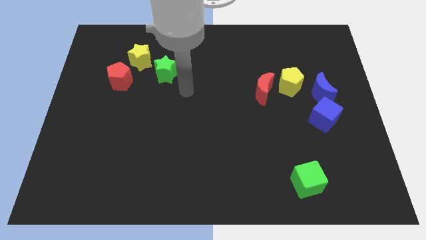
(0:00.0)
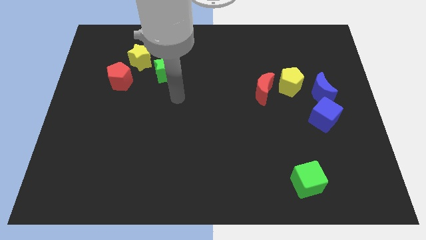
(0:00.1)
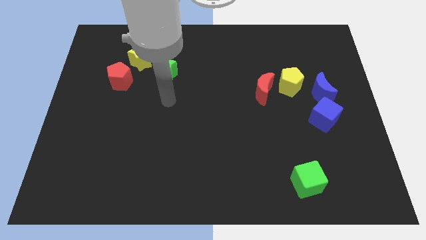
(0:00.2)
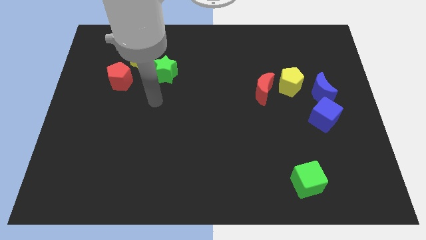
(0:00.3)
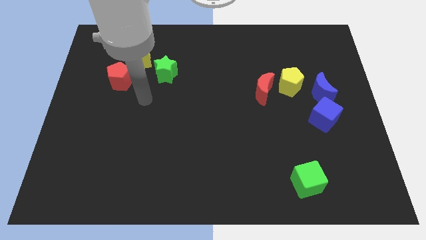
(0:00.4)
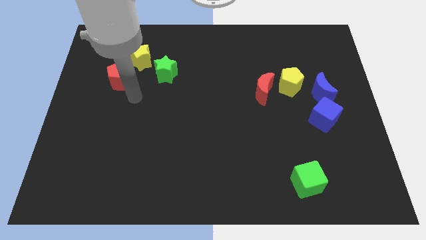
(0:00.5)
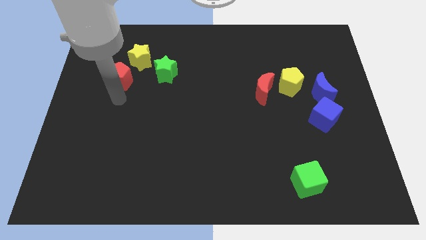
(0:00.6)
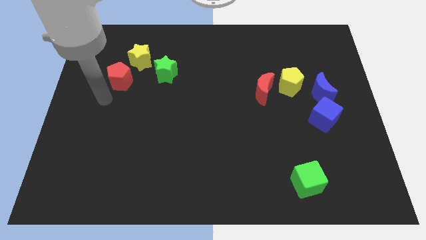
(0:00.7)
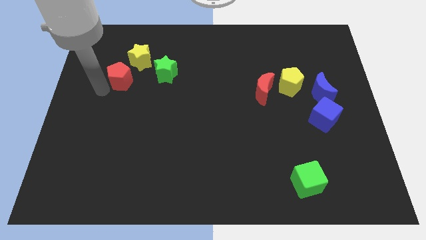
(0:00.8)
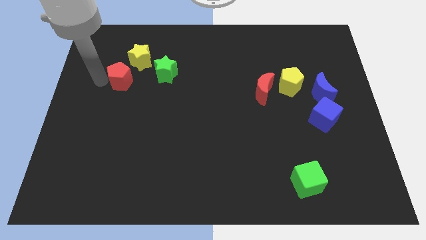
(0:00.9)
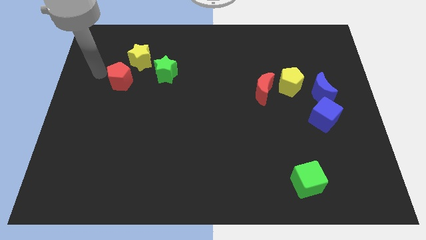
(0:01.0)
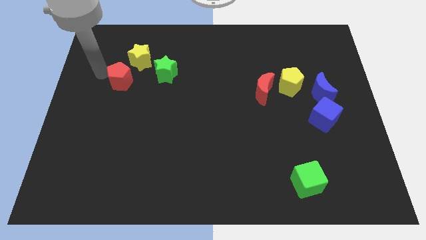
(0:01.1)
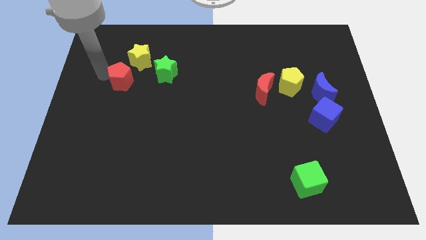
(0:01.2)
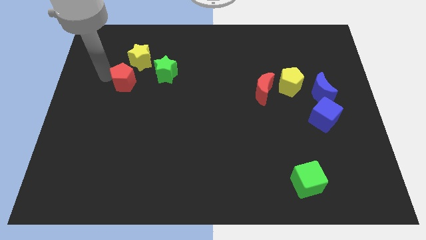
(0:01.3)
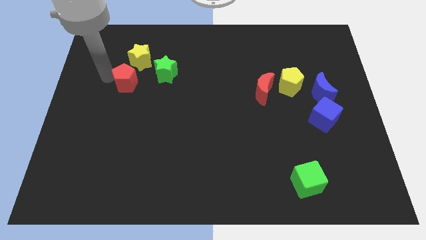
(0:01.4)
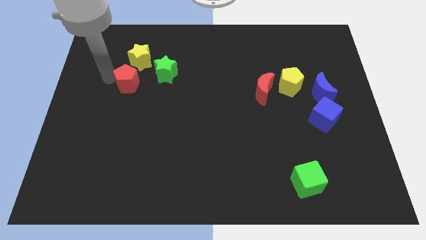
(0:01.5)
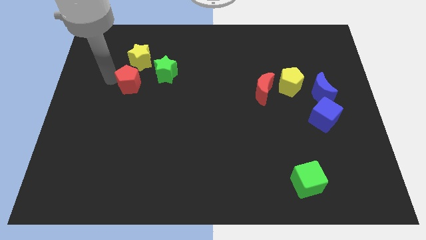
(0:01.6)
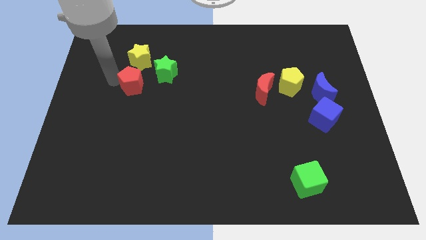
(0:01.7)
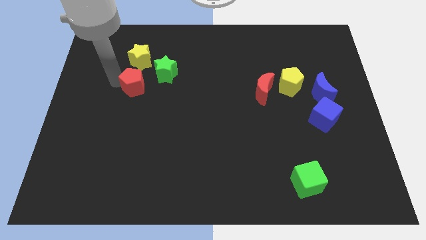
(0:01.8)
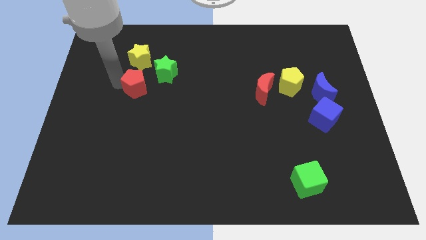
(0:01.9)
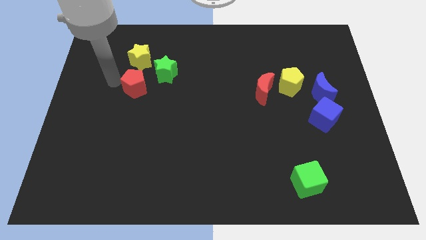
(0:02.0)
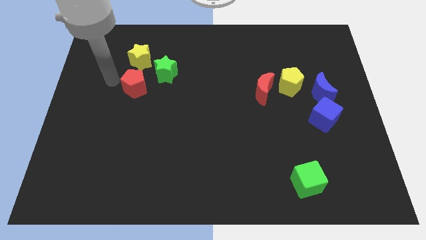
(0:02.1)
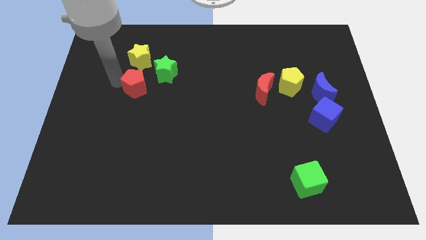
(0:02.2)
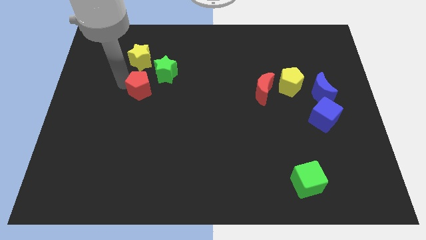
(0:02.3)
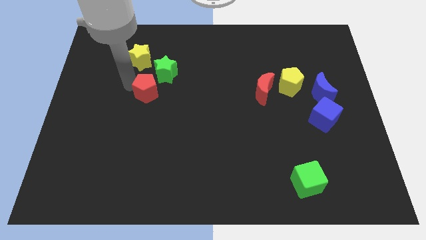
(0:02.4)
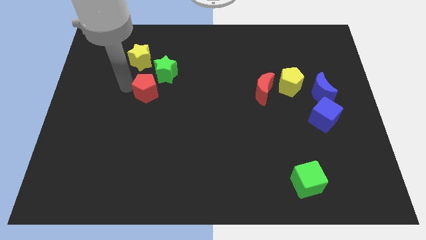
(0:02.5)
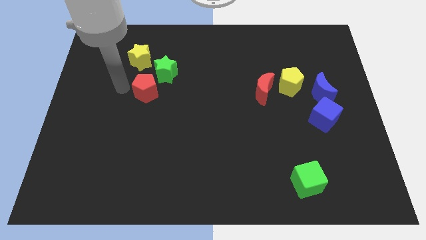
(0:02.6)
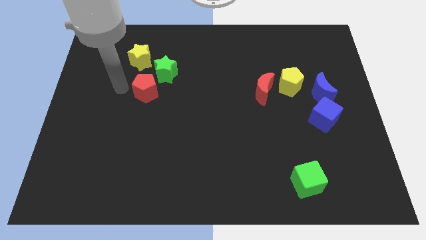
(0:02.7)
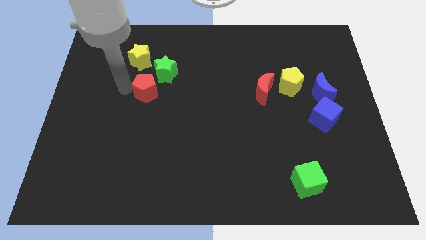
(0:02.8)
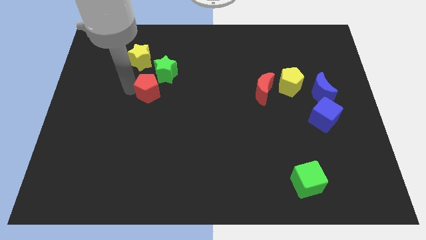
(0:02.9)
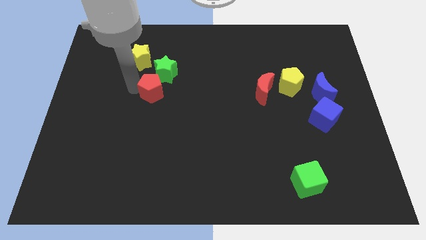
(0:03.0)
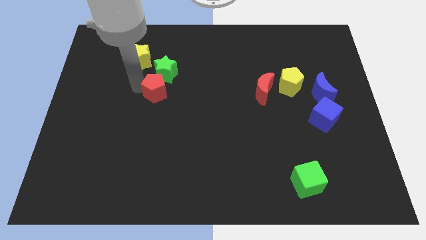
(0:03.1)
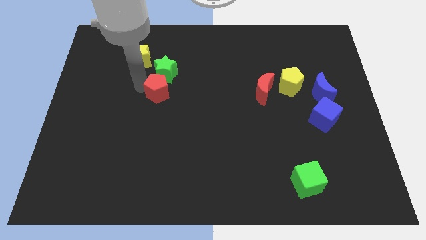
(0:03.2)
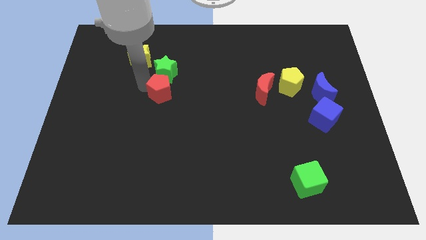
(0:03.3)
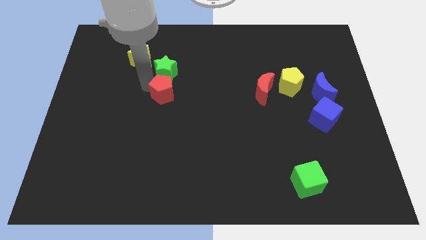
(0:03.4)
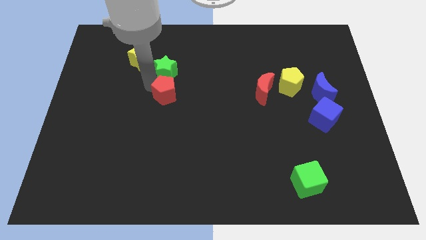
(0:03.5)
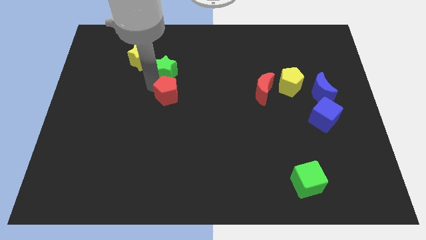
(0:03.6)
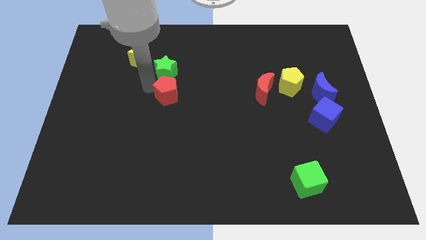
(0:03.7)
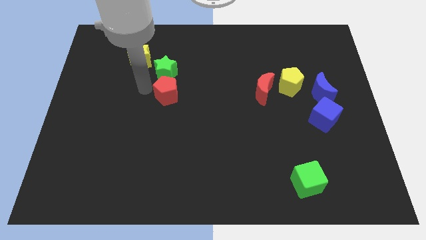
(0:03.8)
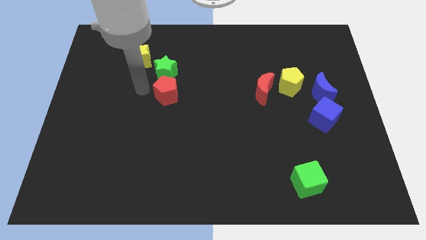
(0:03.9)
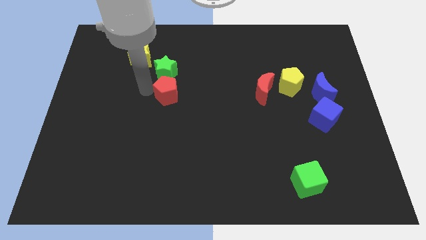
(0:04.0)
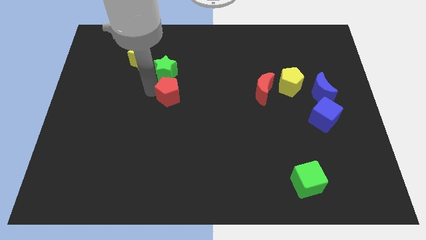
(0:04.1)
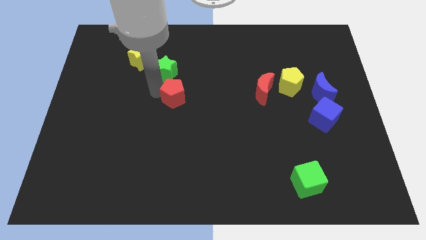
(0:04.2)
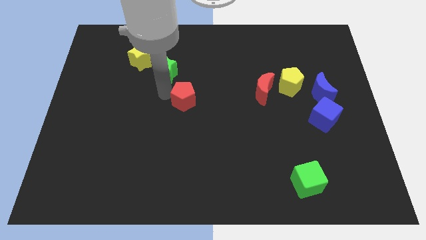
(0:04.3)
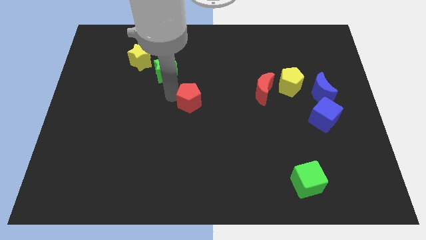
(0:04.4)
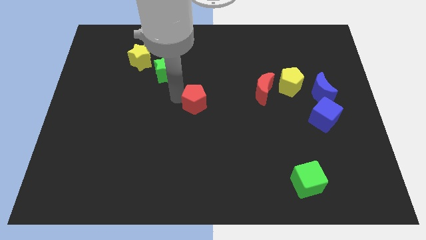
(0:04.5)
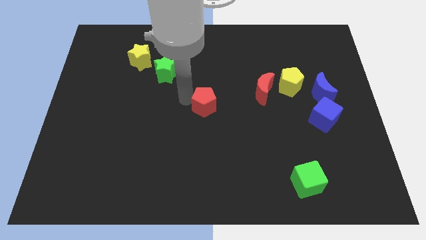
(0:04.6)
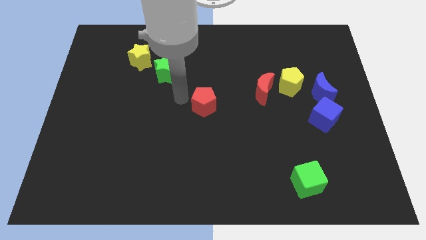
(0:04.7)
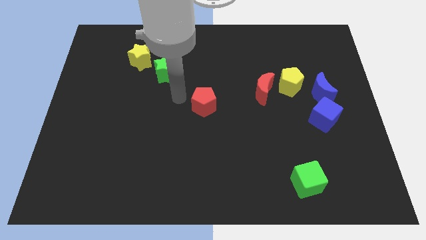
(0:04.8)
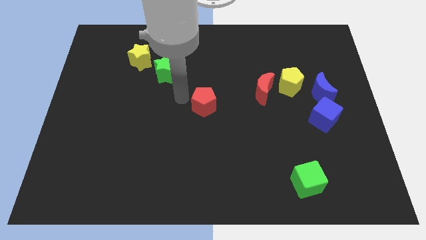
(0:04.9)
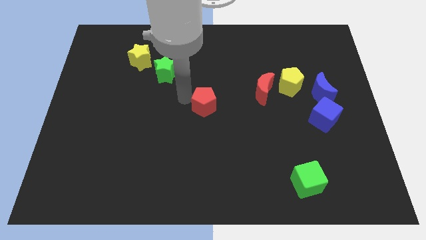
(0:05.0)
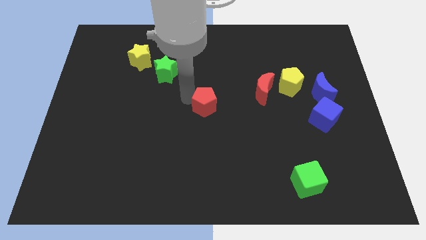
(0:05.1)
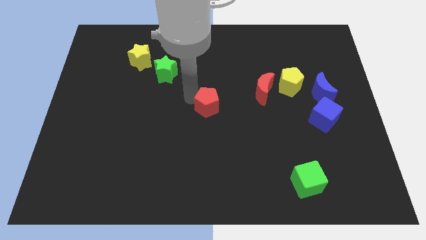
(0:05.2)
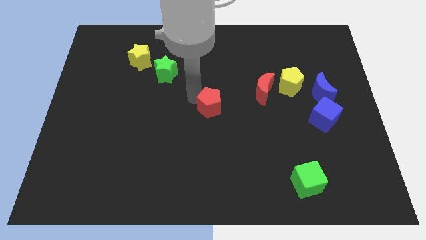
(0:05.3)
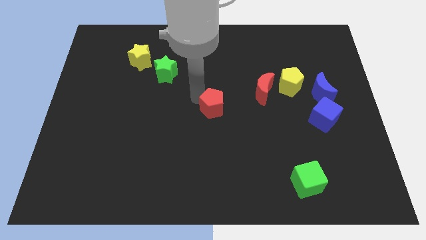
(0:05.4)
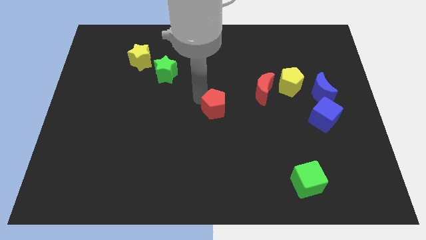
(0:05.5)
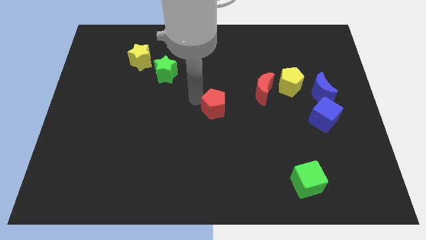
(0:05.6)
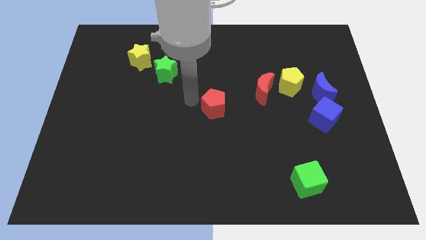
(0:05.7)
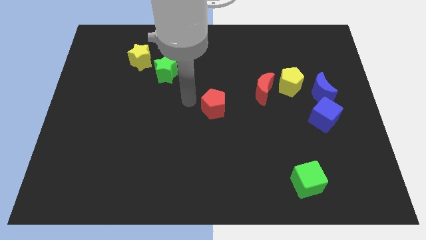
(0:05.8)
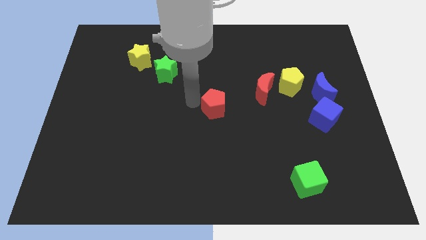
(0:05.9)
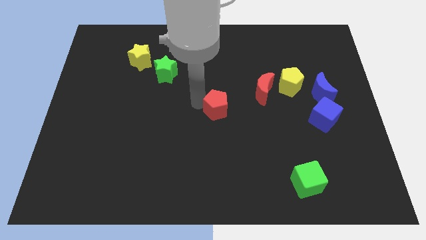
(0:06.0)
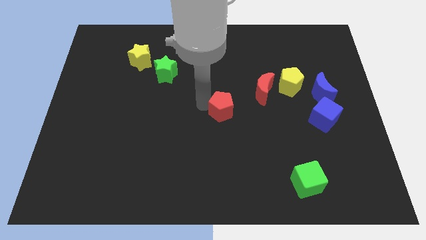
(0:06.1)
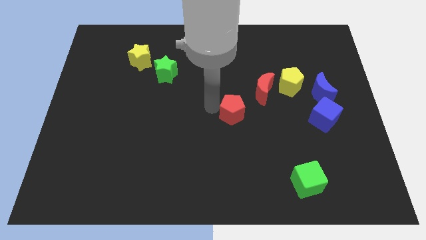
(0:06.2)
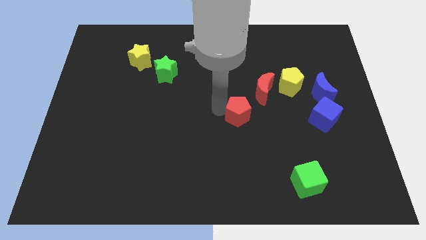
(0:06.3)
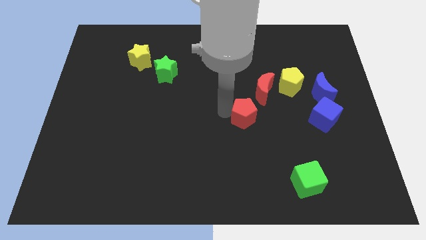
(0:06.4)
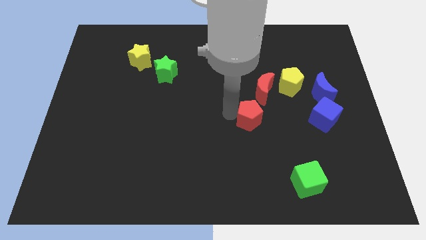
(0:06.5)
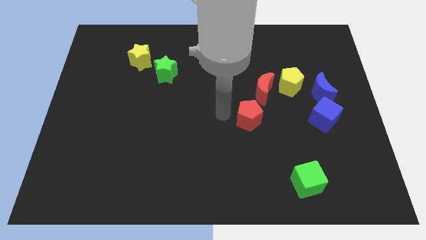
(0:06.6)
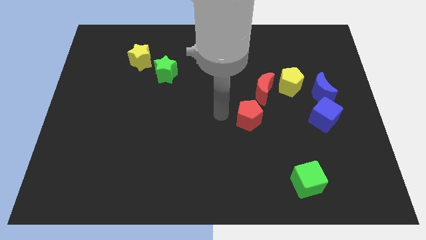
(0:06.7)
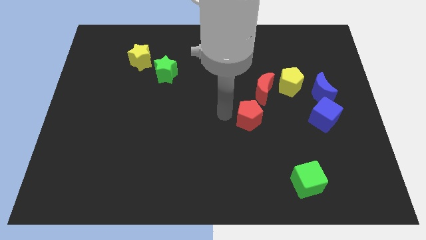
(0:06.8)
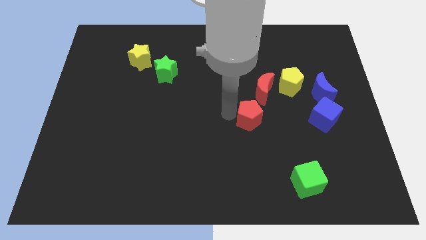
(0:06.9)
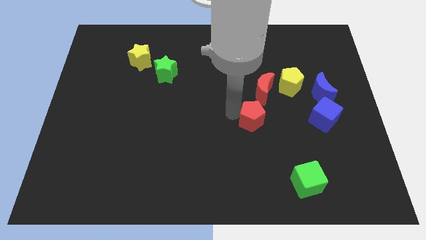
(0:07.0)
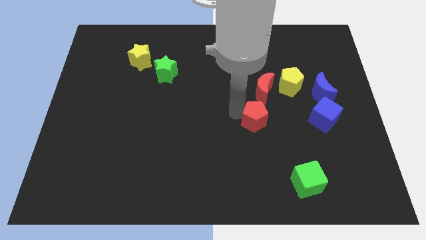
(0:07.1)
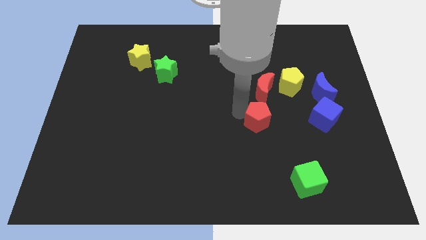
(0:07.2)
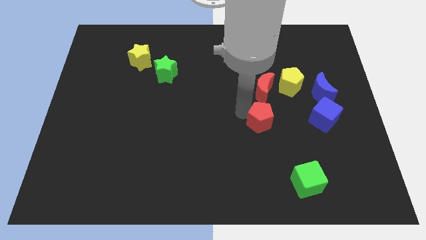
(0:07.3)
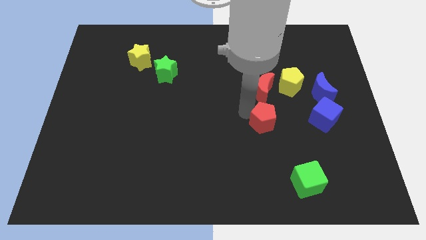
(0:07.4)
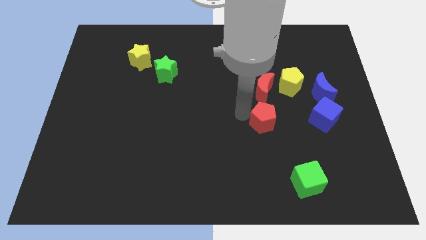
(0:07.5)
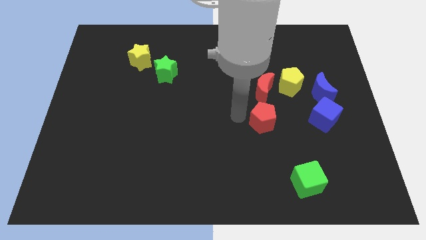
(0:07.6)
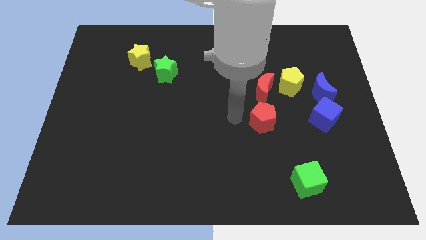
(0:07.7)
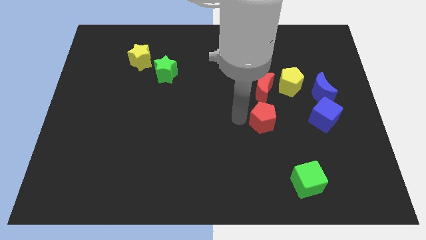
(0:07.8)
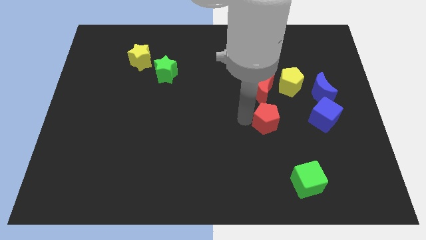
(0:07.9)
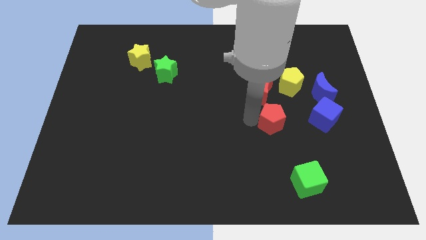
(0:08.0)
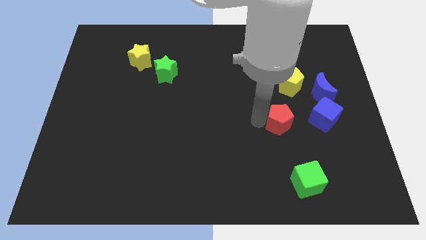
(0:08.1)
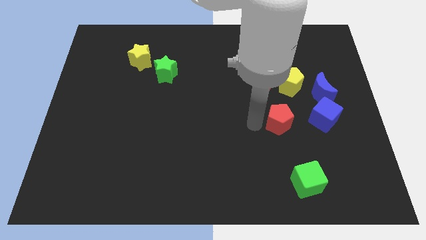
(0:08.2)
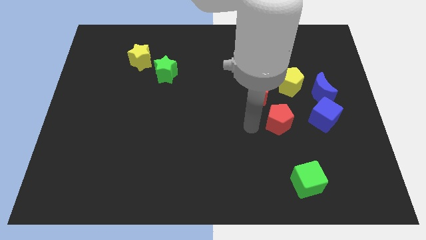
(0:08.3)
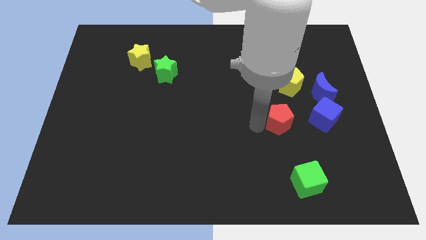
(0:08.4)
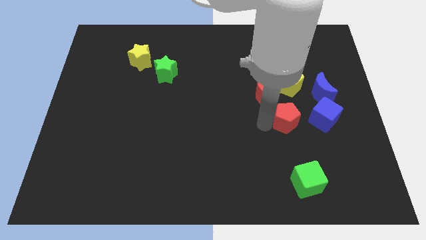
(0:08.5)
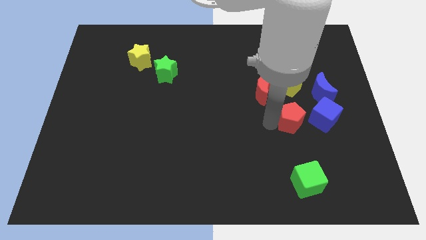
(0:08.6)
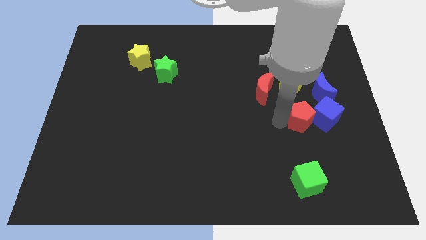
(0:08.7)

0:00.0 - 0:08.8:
slide the red pentagon close to the blue cube
